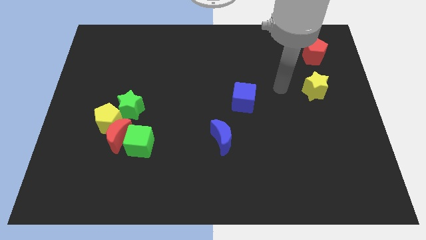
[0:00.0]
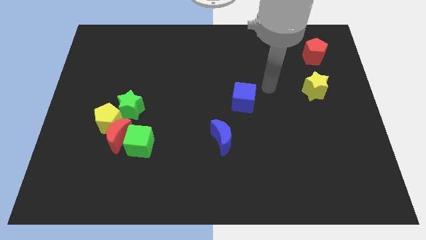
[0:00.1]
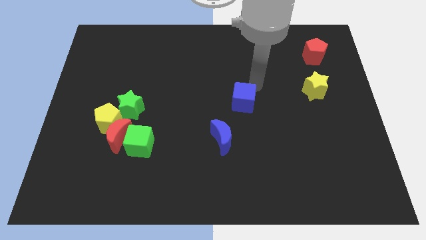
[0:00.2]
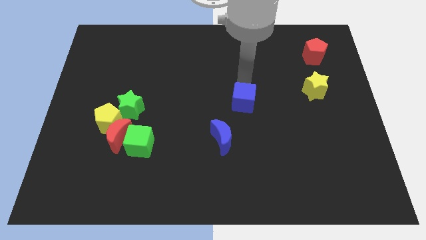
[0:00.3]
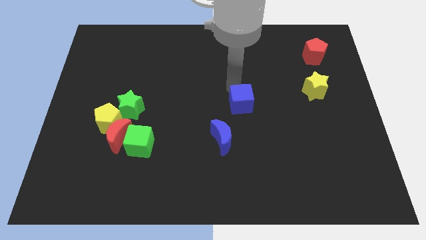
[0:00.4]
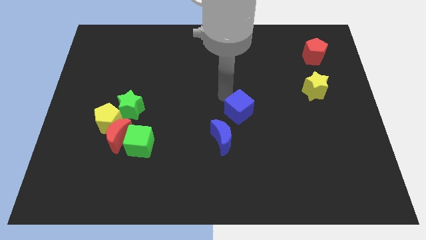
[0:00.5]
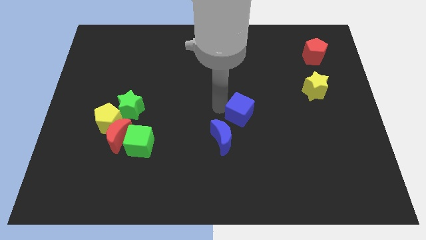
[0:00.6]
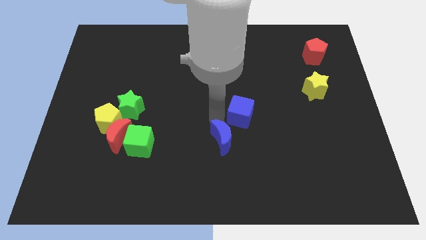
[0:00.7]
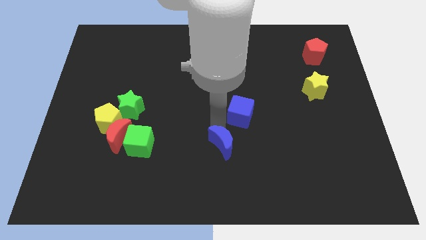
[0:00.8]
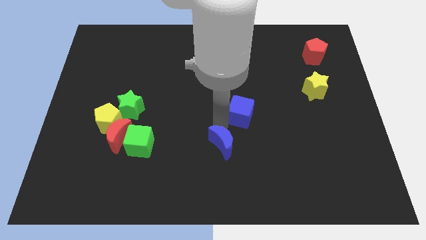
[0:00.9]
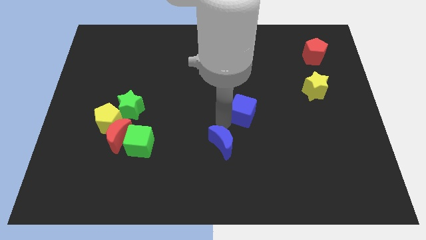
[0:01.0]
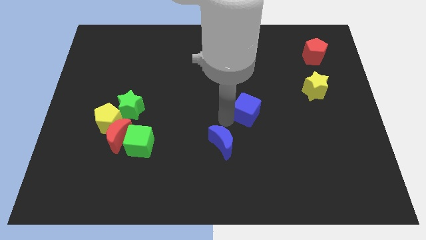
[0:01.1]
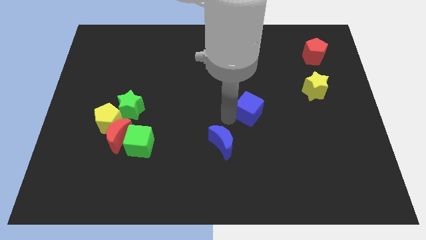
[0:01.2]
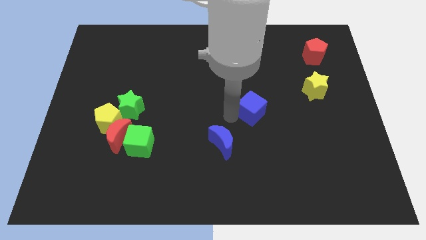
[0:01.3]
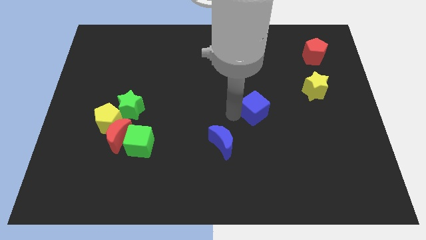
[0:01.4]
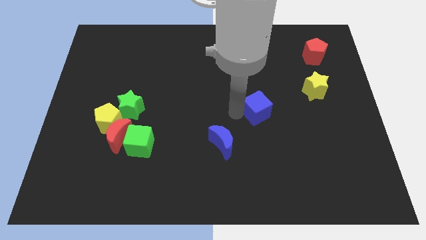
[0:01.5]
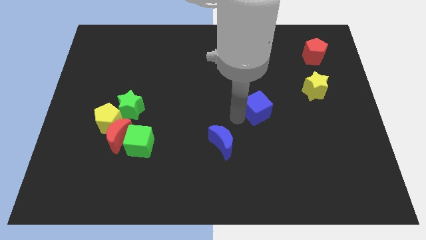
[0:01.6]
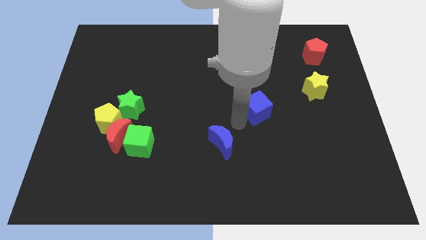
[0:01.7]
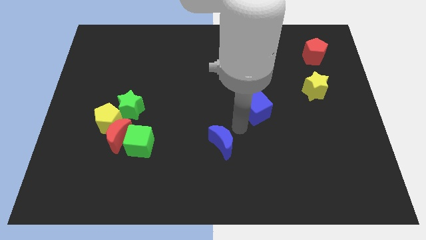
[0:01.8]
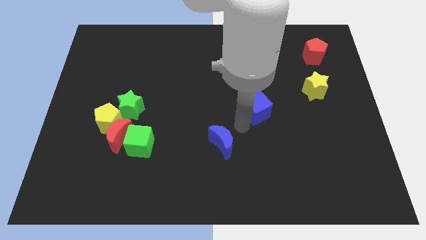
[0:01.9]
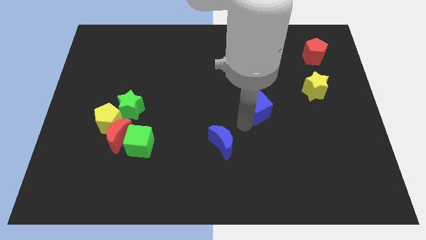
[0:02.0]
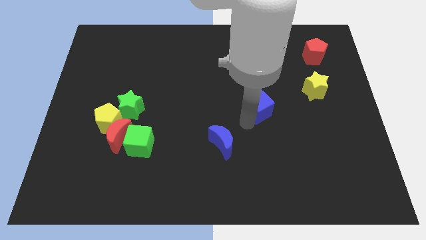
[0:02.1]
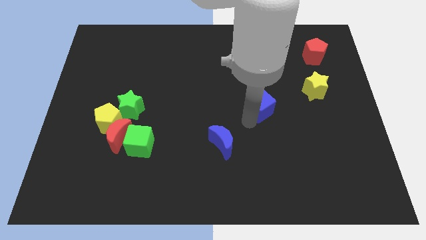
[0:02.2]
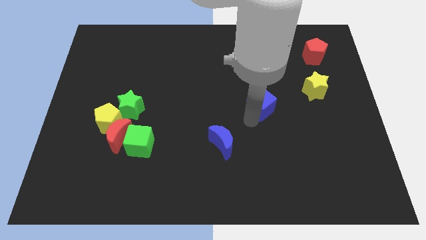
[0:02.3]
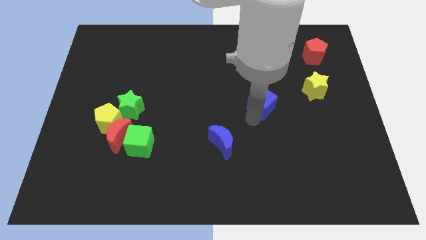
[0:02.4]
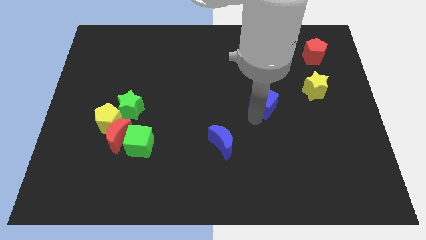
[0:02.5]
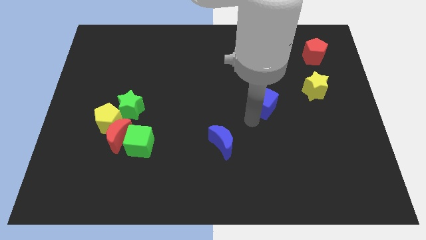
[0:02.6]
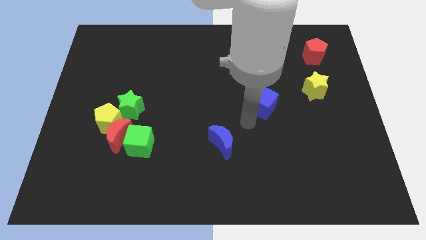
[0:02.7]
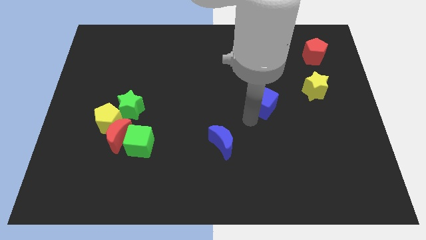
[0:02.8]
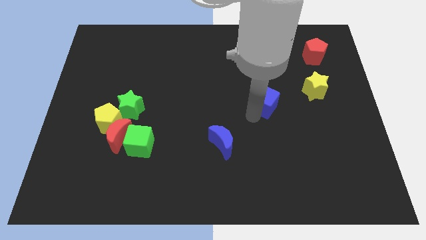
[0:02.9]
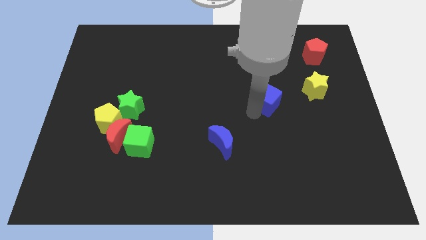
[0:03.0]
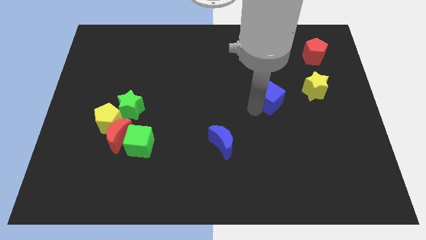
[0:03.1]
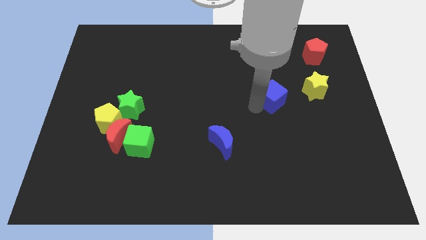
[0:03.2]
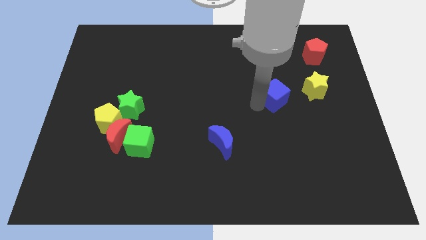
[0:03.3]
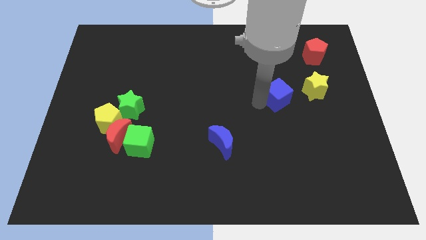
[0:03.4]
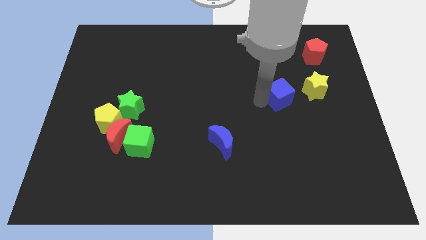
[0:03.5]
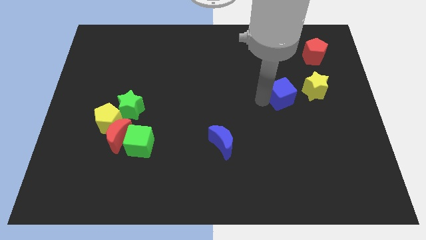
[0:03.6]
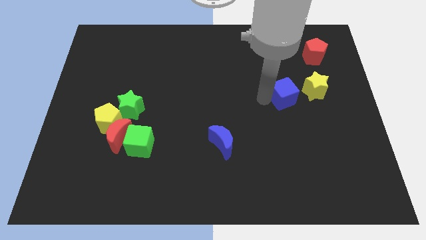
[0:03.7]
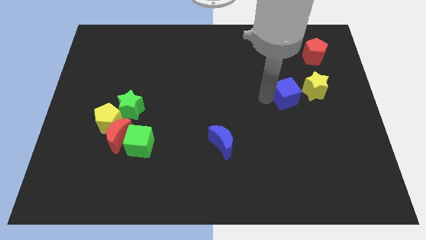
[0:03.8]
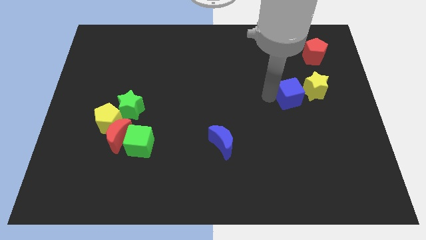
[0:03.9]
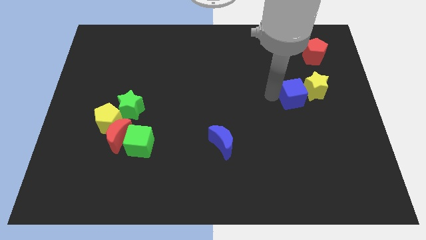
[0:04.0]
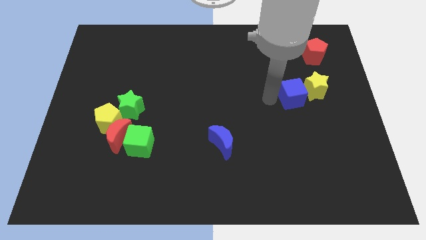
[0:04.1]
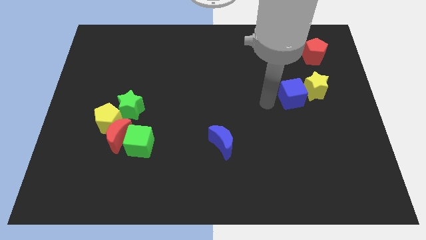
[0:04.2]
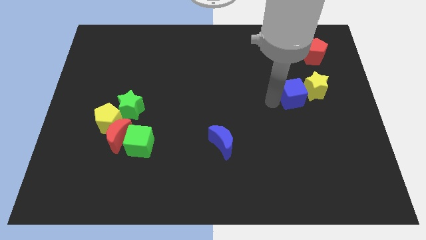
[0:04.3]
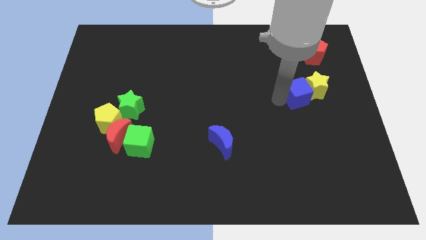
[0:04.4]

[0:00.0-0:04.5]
slide the blue cube to the yellow star

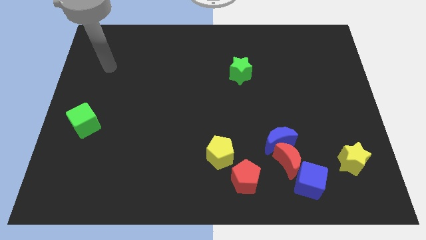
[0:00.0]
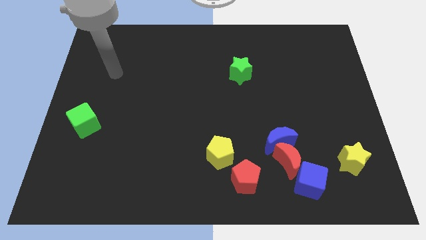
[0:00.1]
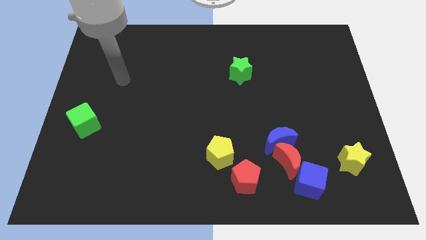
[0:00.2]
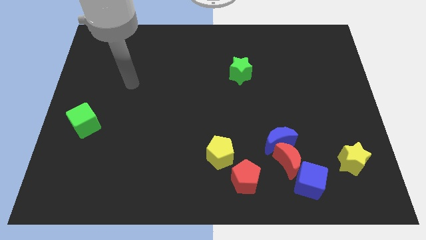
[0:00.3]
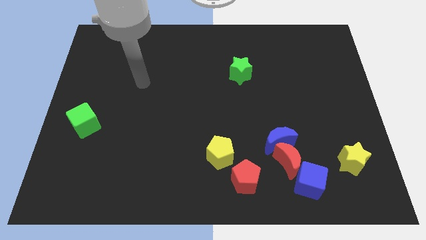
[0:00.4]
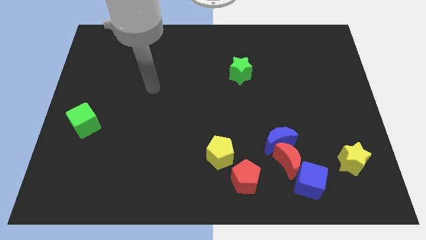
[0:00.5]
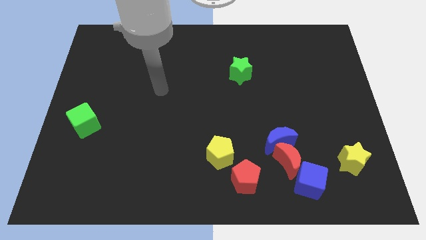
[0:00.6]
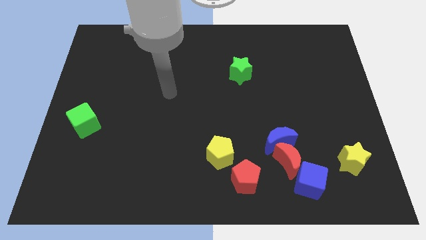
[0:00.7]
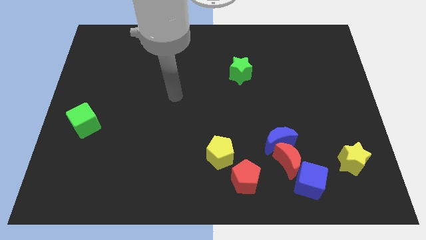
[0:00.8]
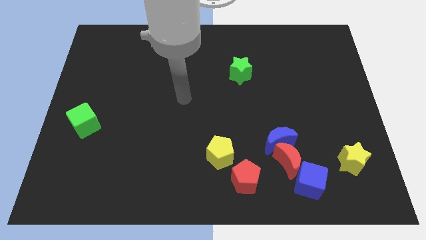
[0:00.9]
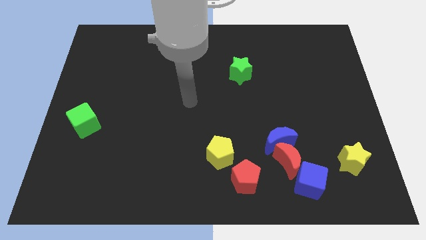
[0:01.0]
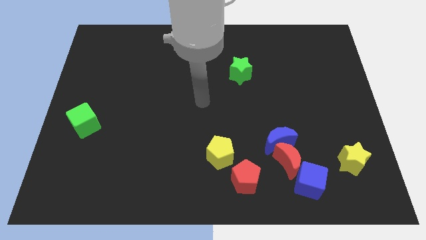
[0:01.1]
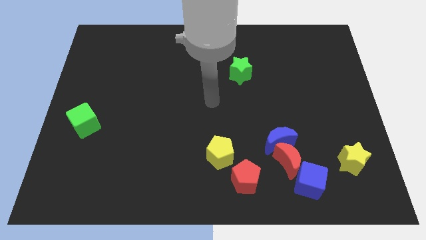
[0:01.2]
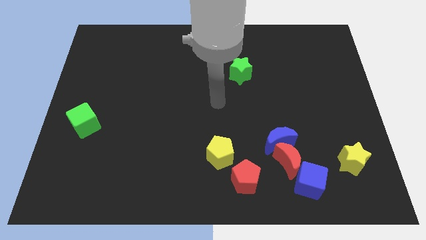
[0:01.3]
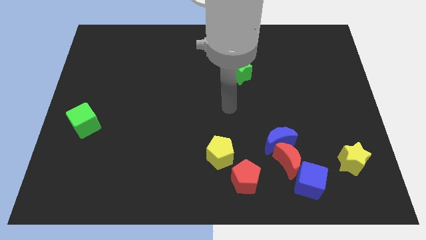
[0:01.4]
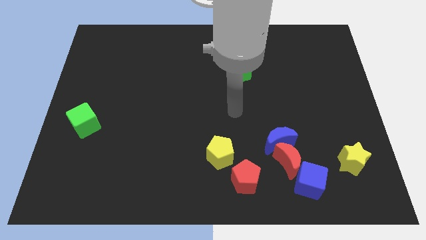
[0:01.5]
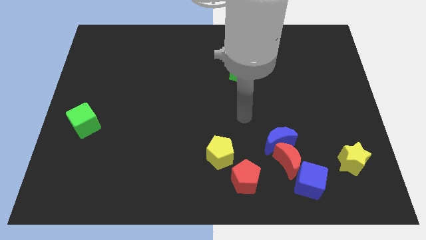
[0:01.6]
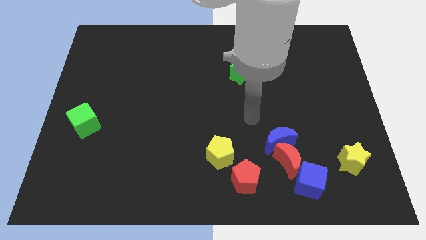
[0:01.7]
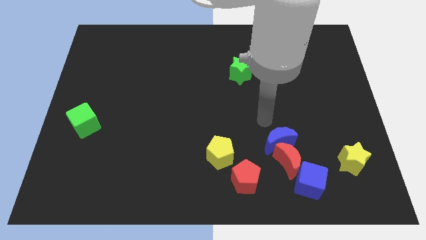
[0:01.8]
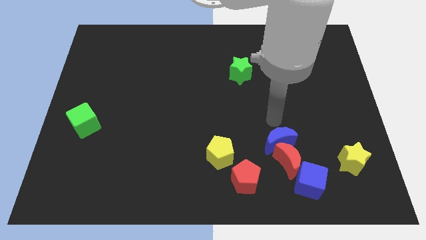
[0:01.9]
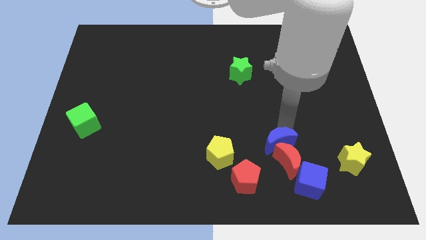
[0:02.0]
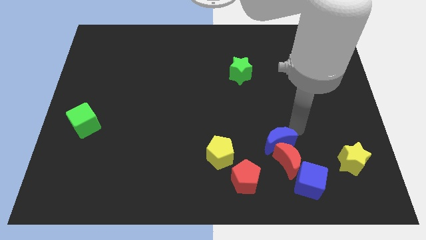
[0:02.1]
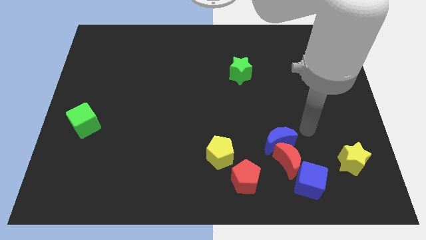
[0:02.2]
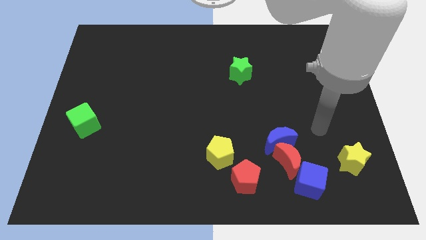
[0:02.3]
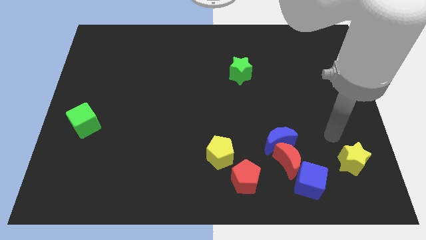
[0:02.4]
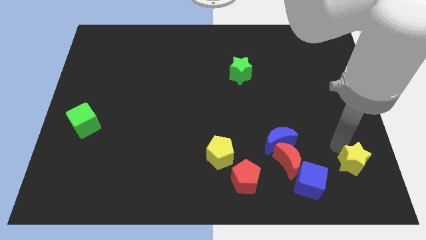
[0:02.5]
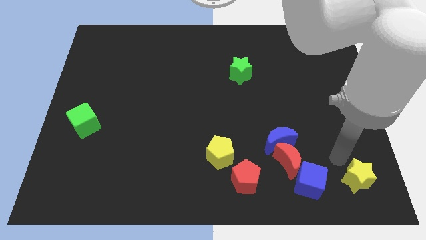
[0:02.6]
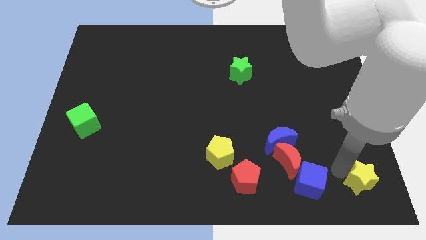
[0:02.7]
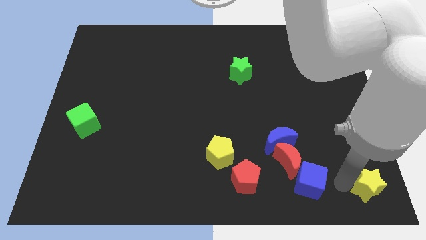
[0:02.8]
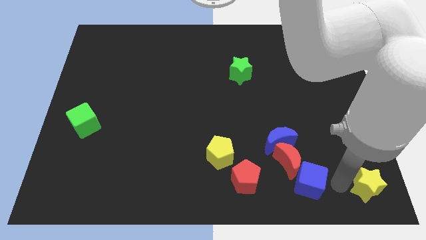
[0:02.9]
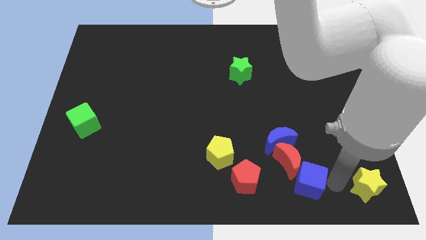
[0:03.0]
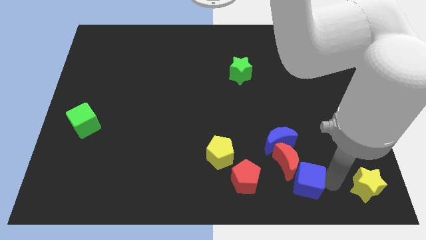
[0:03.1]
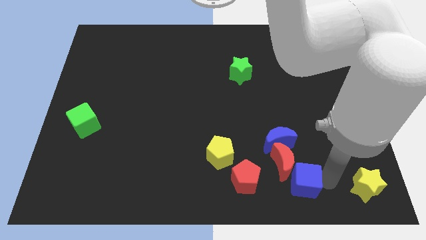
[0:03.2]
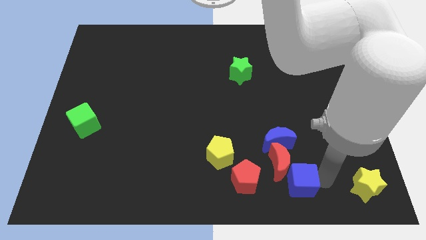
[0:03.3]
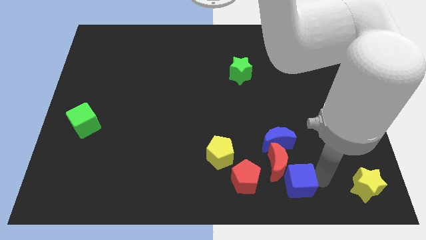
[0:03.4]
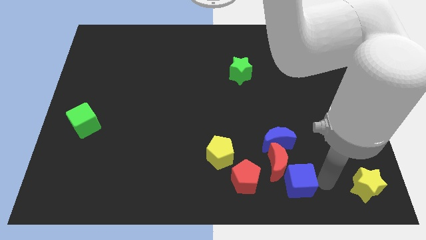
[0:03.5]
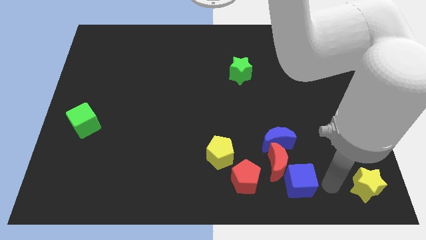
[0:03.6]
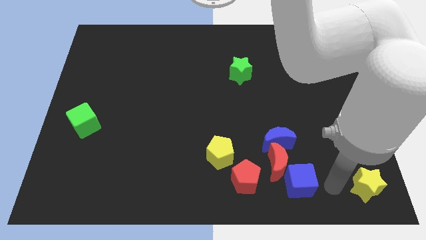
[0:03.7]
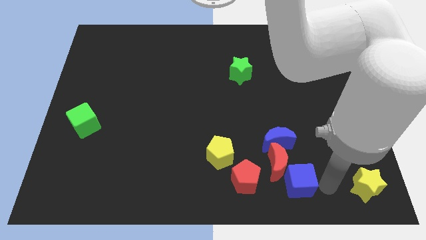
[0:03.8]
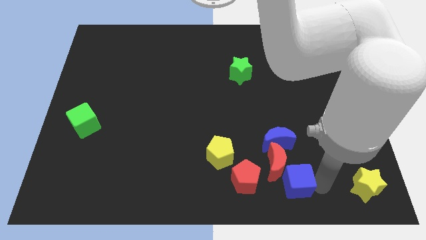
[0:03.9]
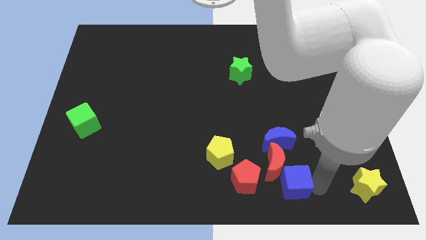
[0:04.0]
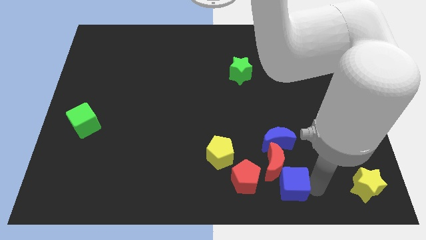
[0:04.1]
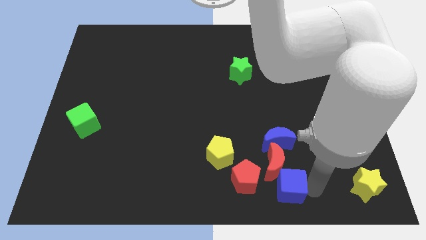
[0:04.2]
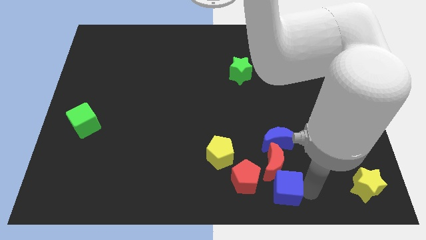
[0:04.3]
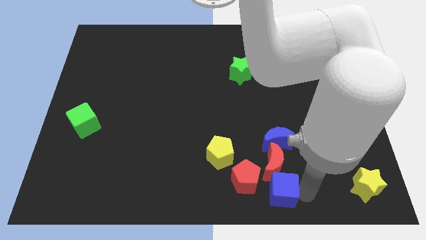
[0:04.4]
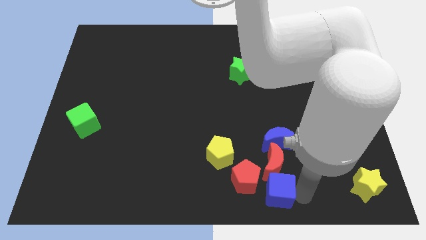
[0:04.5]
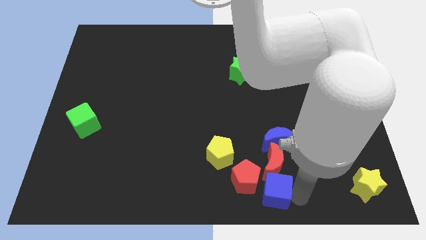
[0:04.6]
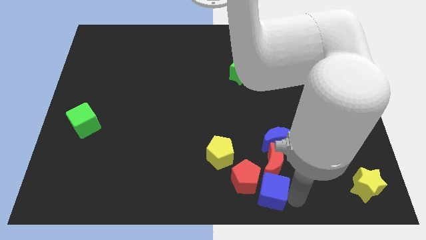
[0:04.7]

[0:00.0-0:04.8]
put the blue cube to the red pentagon
